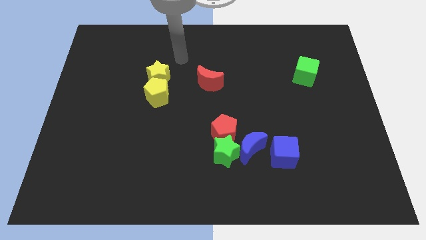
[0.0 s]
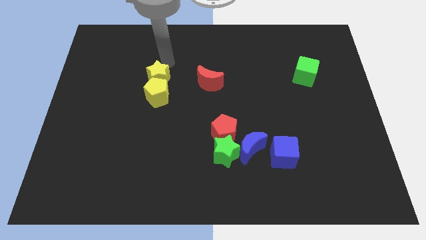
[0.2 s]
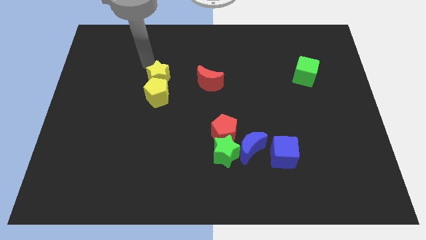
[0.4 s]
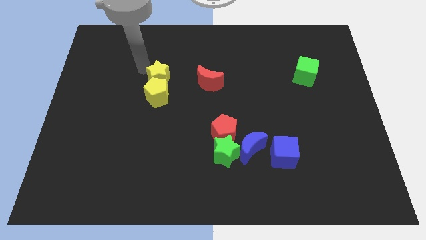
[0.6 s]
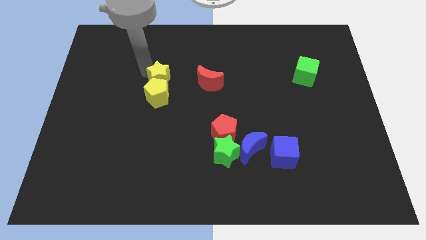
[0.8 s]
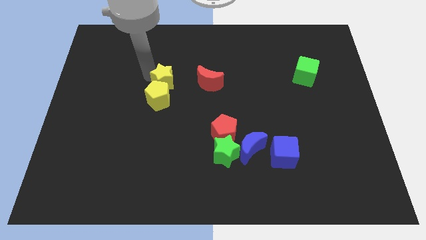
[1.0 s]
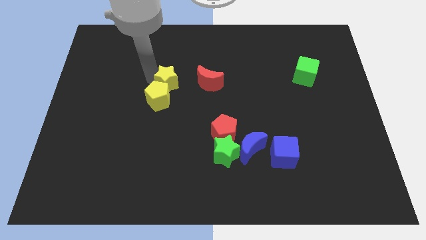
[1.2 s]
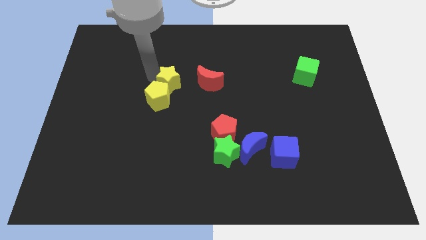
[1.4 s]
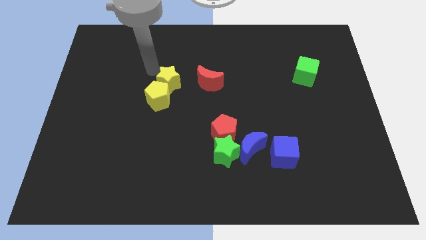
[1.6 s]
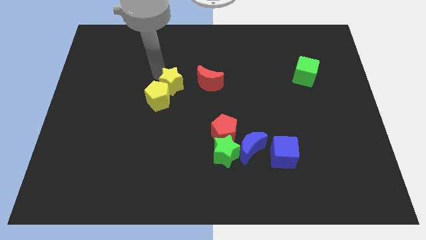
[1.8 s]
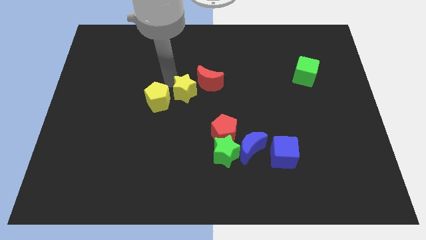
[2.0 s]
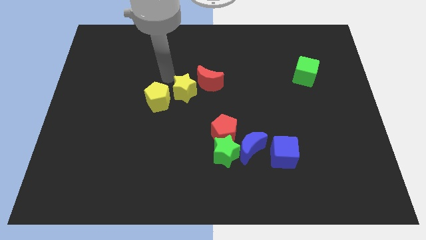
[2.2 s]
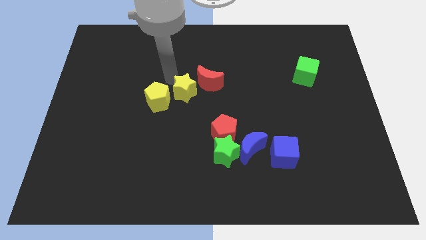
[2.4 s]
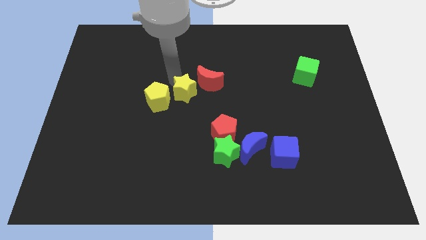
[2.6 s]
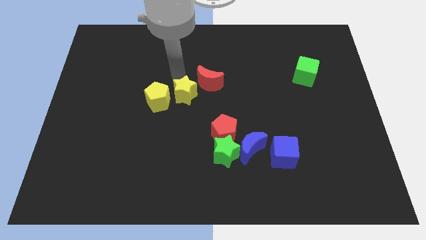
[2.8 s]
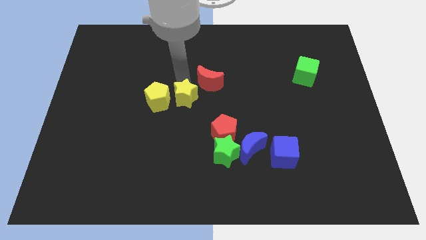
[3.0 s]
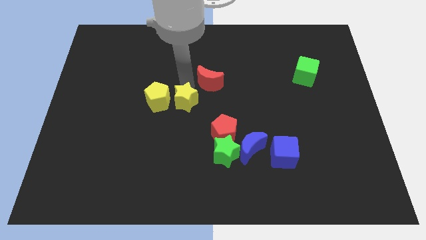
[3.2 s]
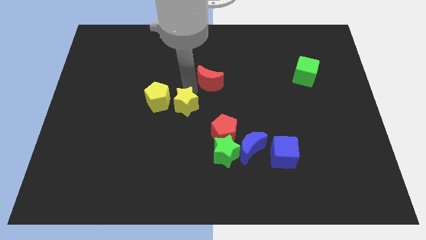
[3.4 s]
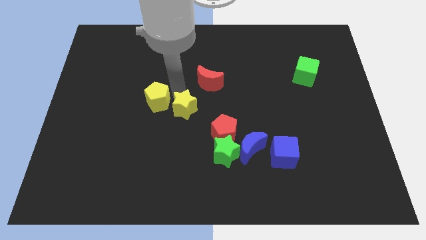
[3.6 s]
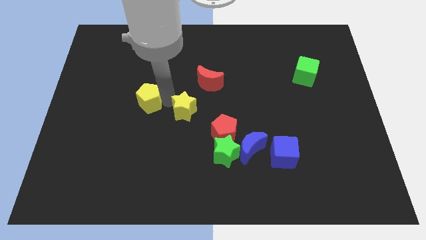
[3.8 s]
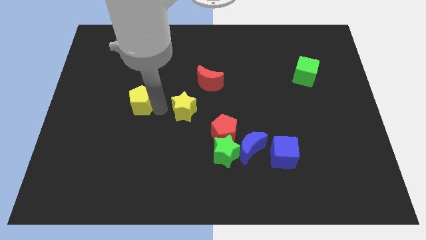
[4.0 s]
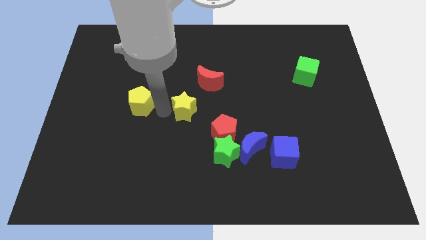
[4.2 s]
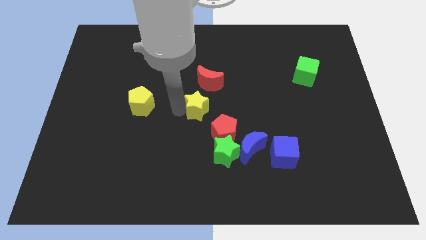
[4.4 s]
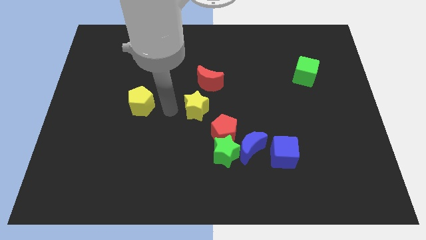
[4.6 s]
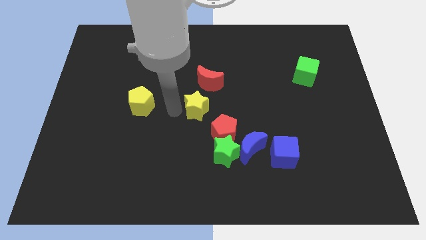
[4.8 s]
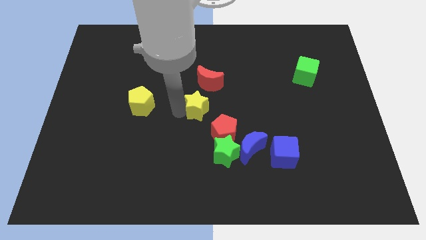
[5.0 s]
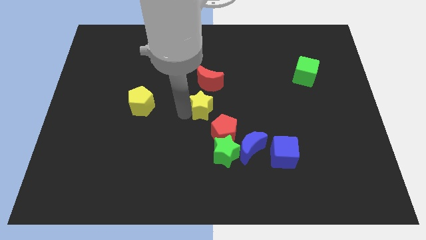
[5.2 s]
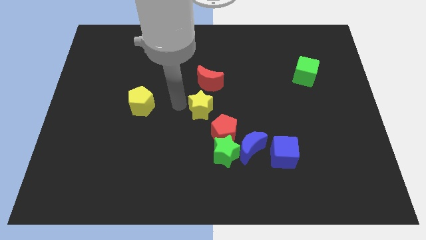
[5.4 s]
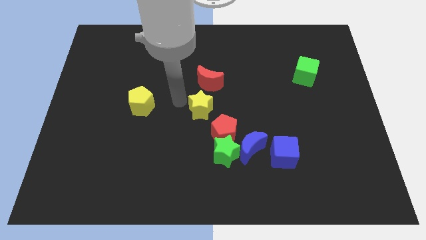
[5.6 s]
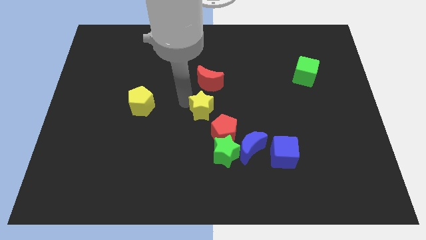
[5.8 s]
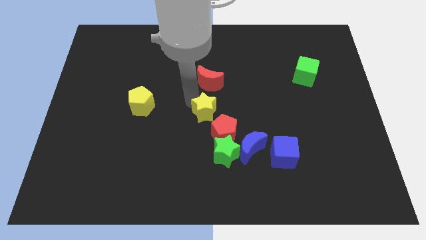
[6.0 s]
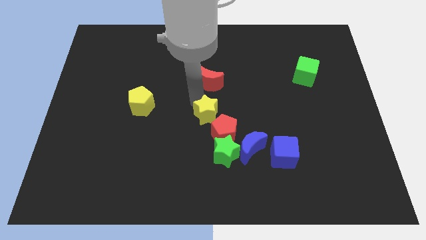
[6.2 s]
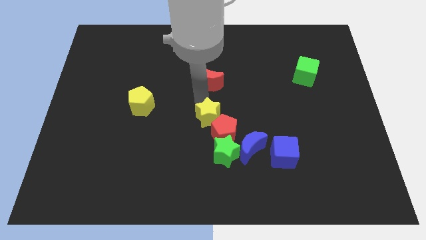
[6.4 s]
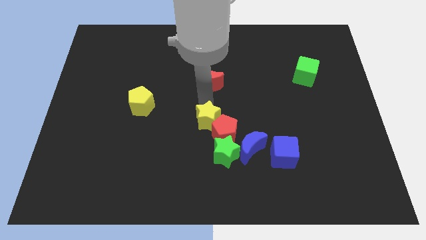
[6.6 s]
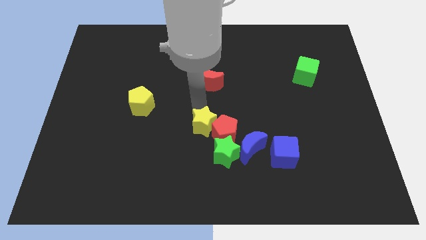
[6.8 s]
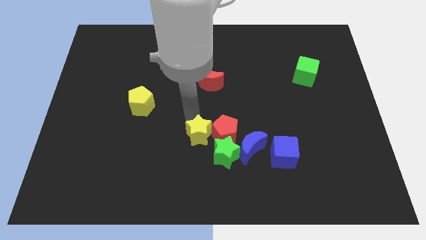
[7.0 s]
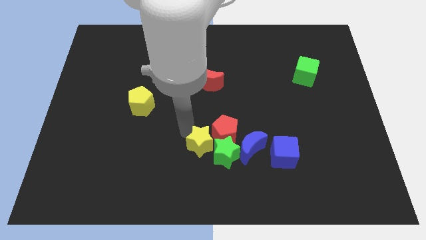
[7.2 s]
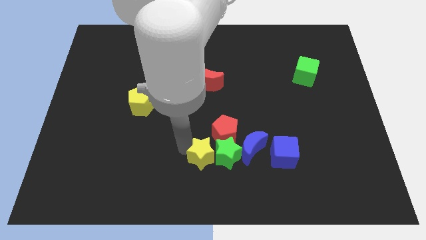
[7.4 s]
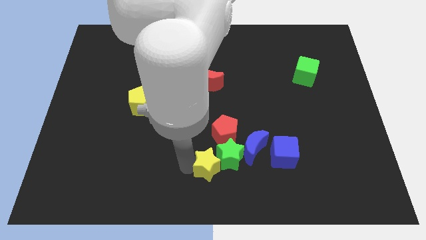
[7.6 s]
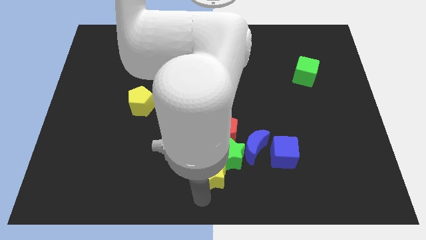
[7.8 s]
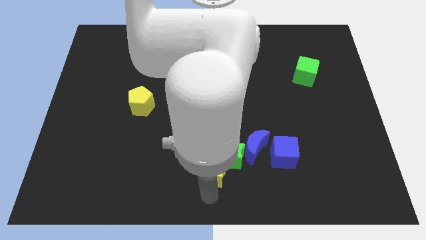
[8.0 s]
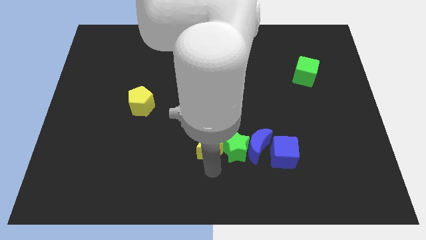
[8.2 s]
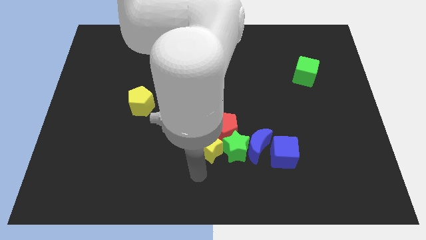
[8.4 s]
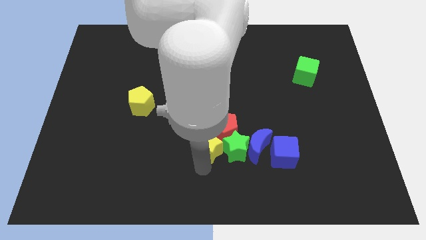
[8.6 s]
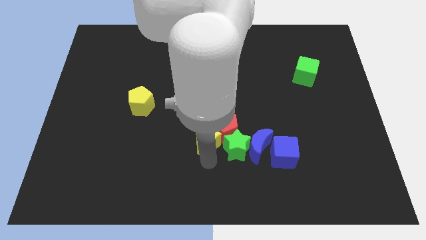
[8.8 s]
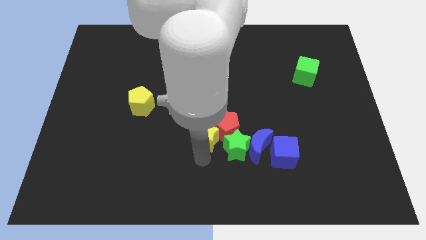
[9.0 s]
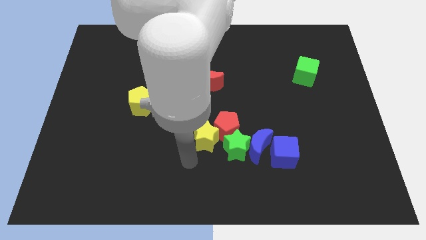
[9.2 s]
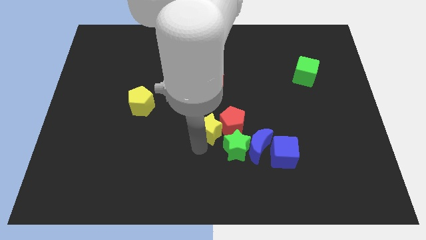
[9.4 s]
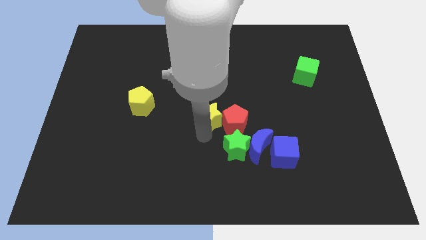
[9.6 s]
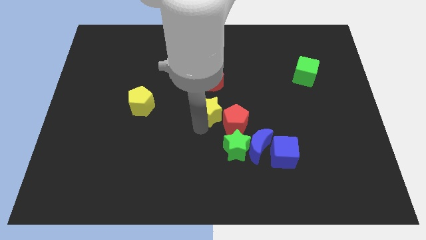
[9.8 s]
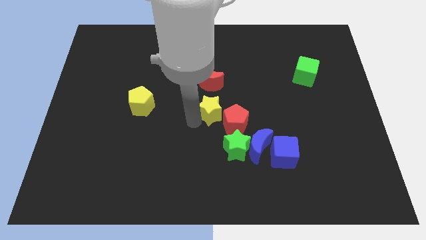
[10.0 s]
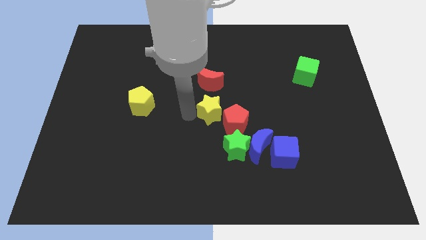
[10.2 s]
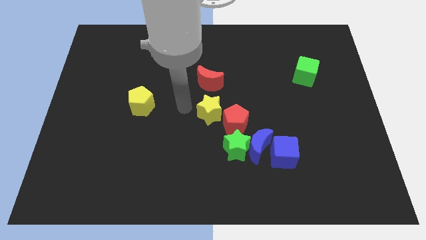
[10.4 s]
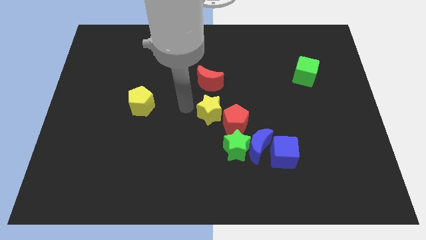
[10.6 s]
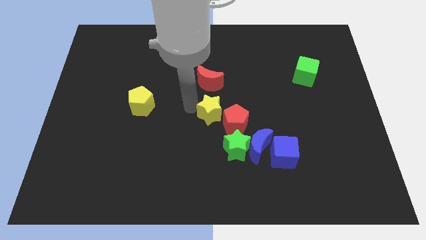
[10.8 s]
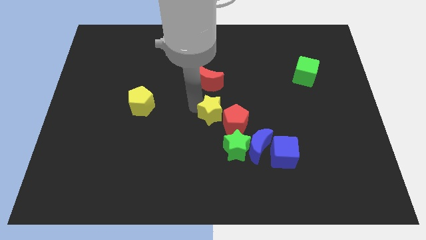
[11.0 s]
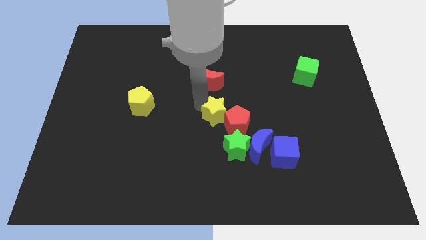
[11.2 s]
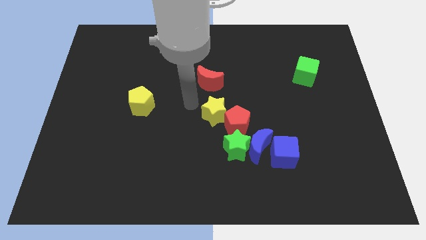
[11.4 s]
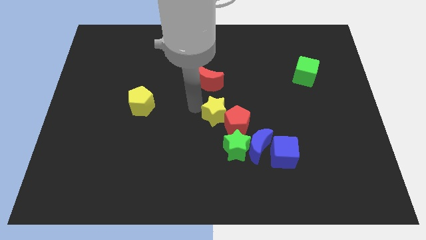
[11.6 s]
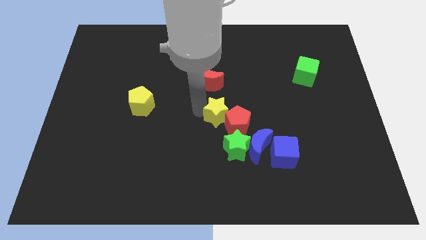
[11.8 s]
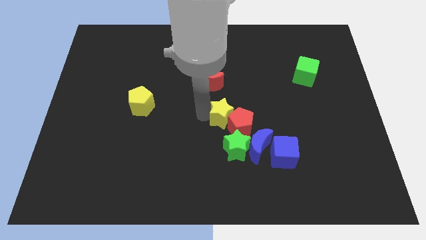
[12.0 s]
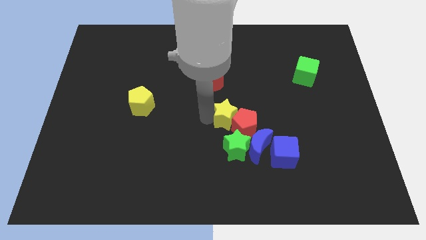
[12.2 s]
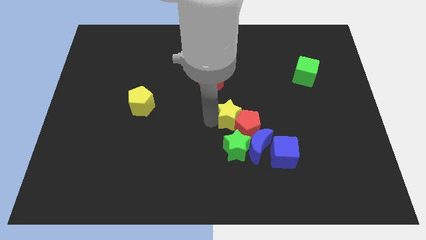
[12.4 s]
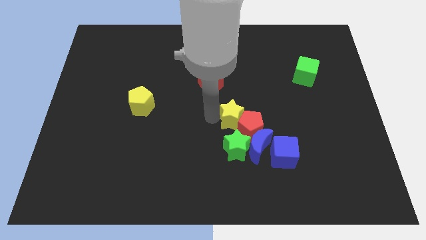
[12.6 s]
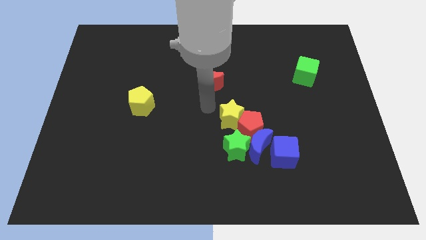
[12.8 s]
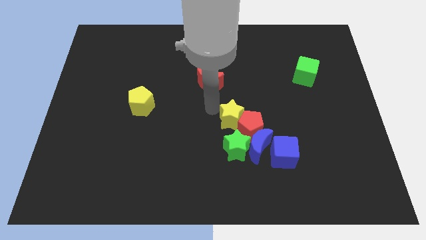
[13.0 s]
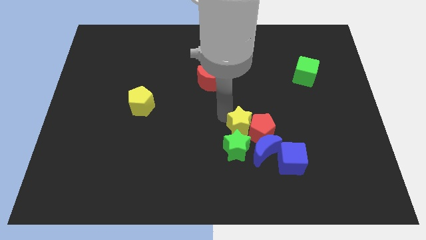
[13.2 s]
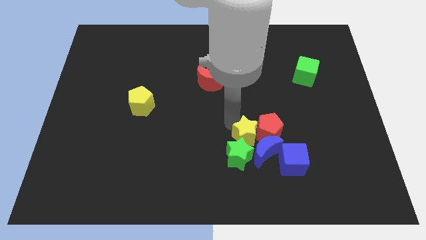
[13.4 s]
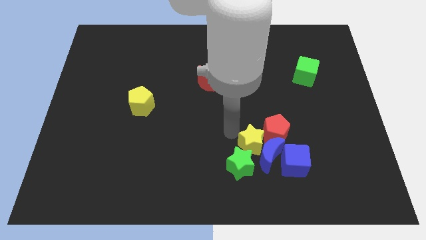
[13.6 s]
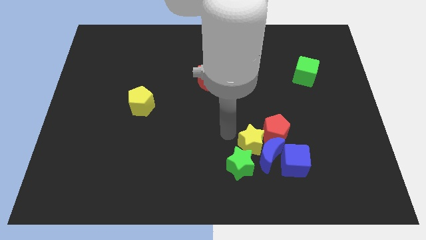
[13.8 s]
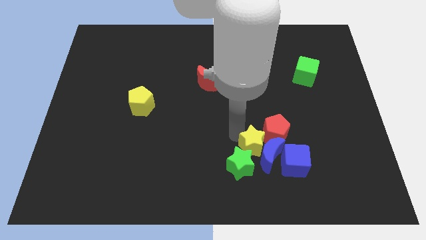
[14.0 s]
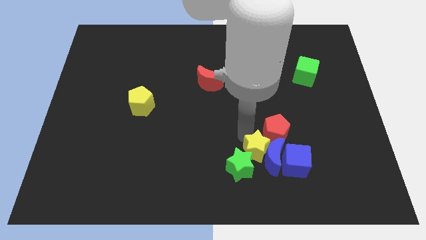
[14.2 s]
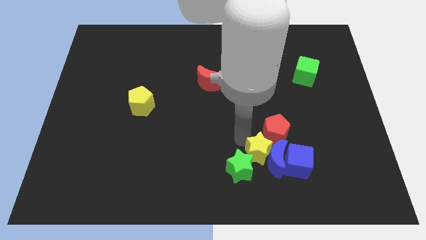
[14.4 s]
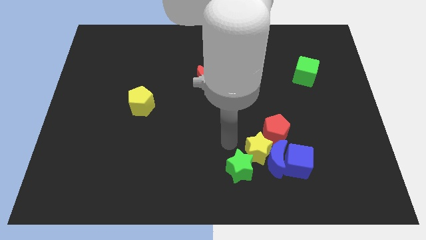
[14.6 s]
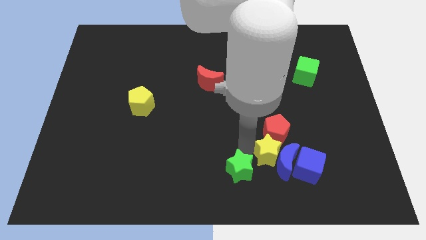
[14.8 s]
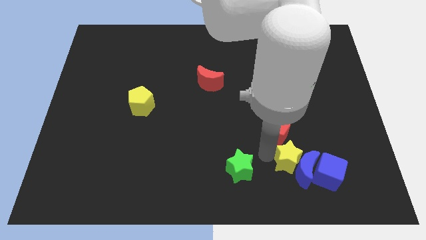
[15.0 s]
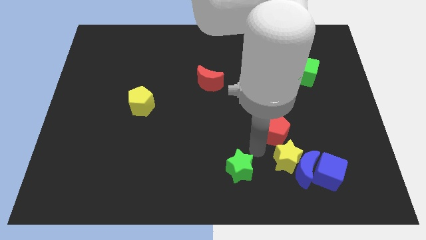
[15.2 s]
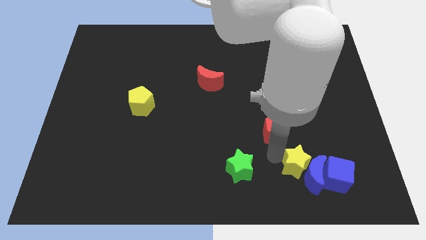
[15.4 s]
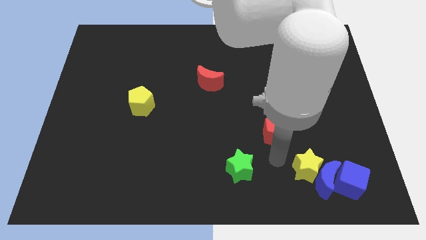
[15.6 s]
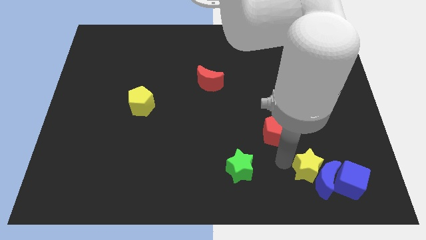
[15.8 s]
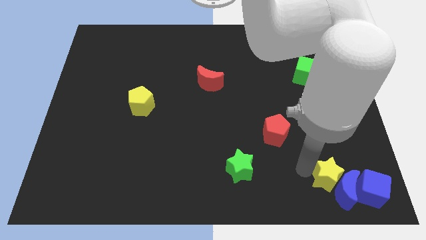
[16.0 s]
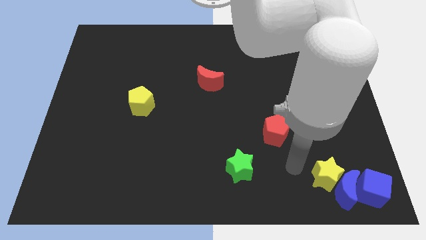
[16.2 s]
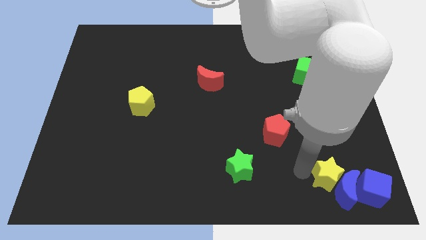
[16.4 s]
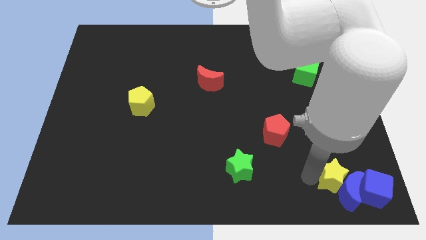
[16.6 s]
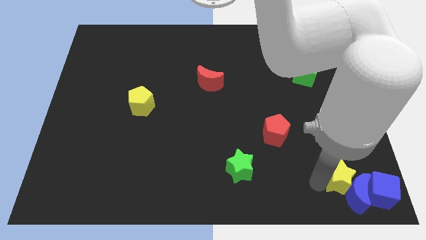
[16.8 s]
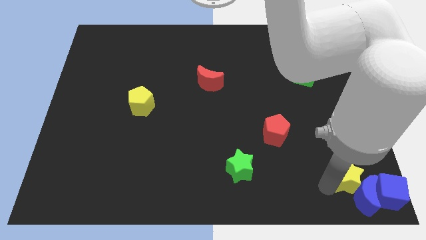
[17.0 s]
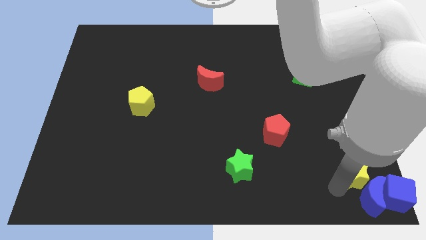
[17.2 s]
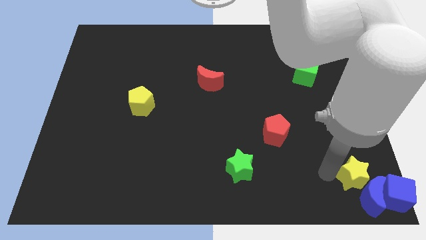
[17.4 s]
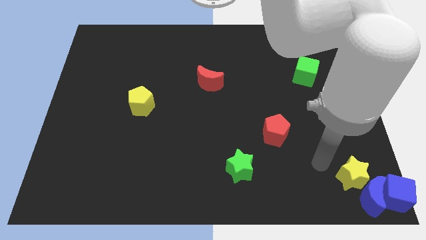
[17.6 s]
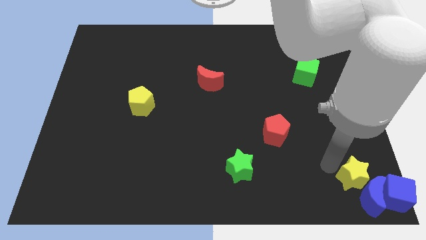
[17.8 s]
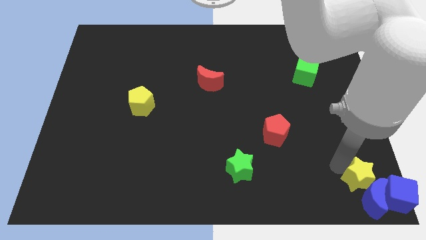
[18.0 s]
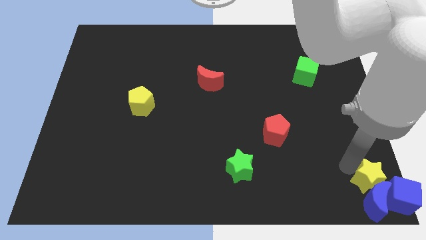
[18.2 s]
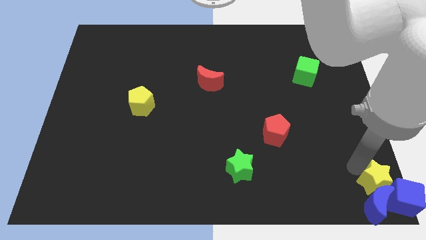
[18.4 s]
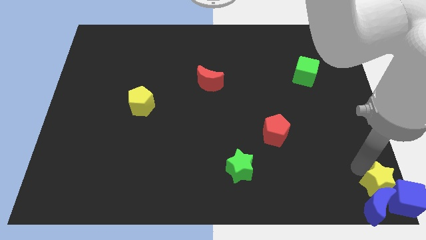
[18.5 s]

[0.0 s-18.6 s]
move the yellow star to the blue cube
